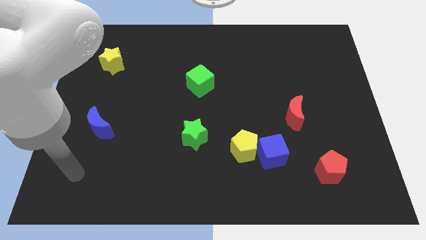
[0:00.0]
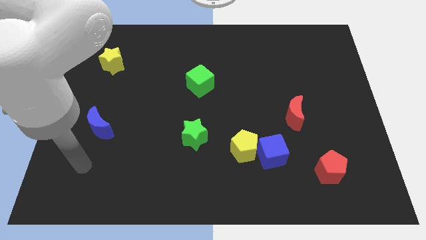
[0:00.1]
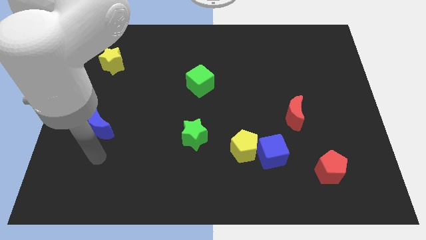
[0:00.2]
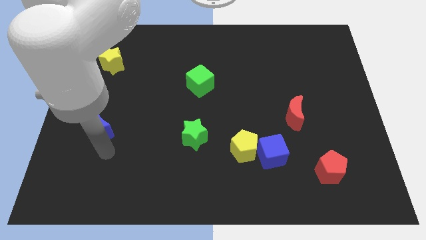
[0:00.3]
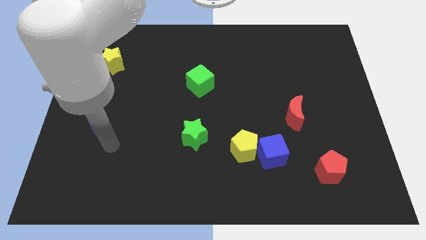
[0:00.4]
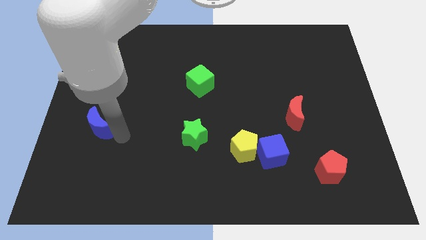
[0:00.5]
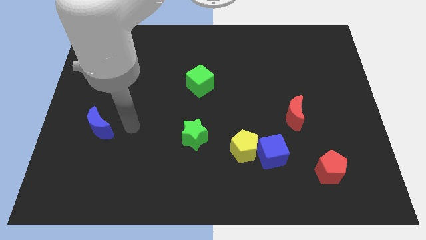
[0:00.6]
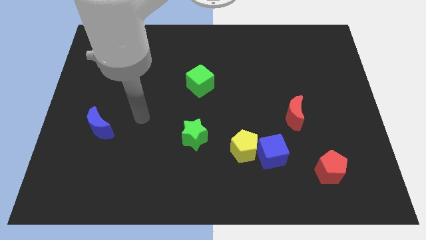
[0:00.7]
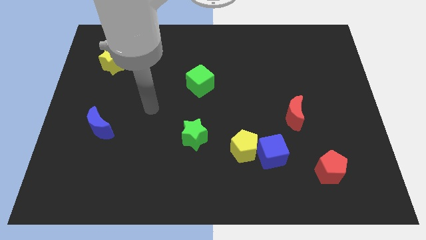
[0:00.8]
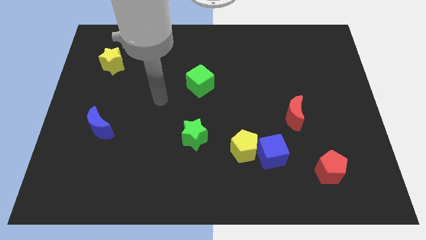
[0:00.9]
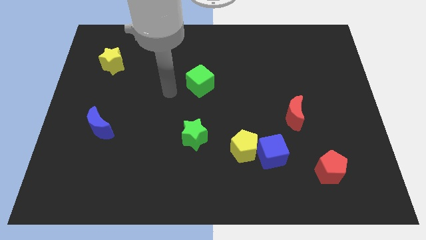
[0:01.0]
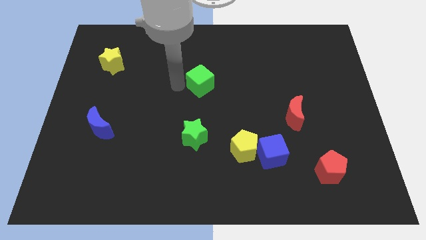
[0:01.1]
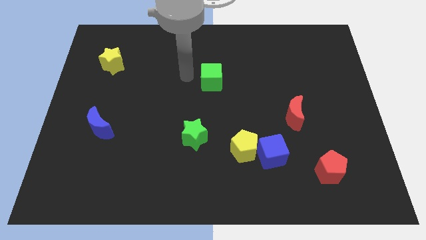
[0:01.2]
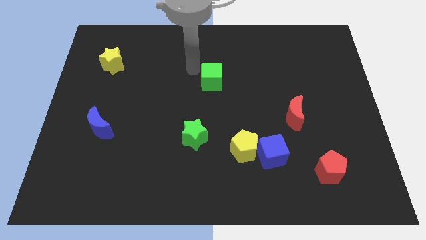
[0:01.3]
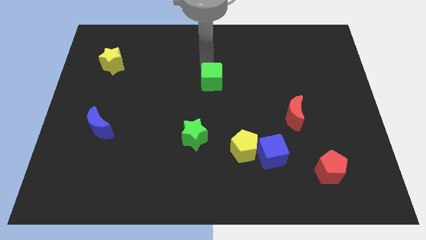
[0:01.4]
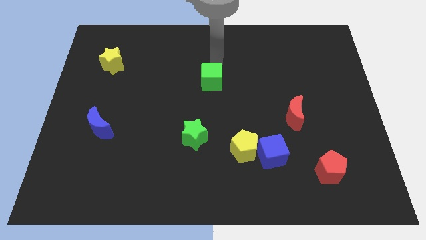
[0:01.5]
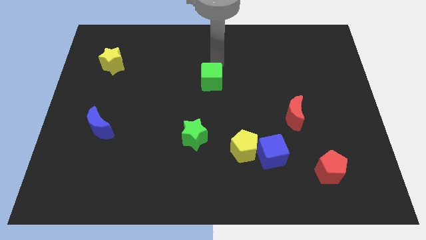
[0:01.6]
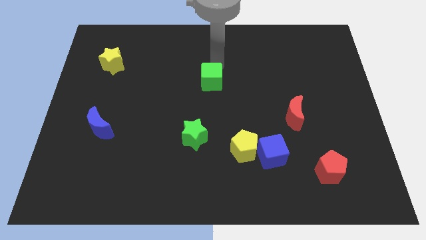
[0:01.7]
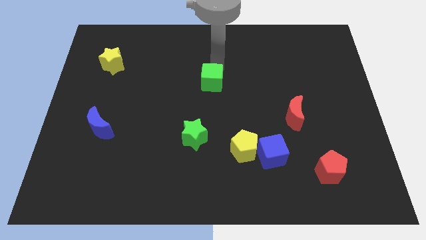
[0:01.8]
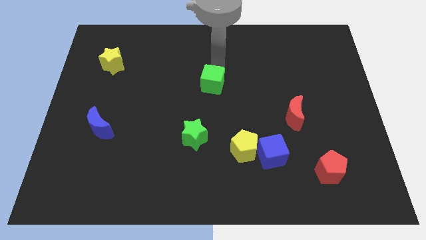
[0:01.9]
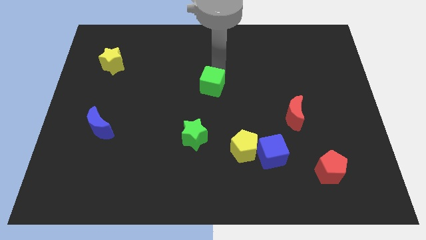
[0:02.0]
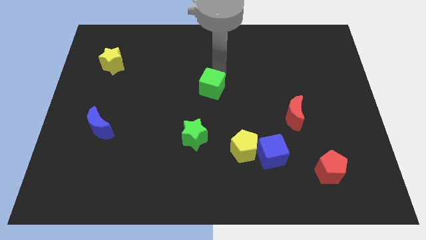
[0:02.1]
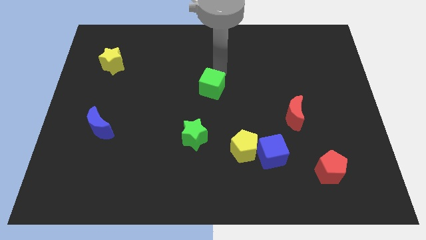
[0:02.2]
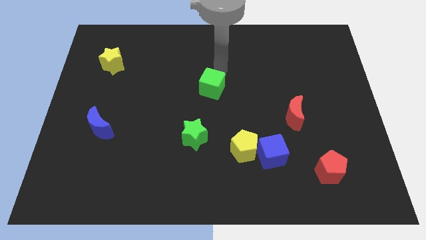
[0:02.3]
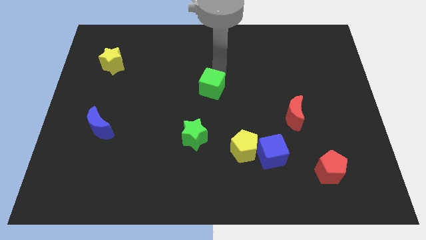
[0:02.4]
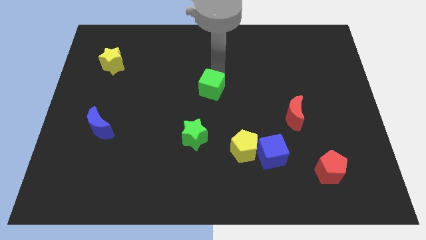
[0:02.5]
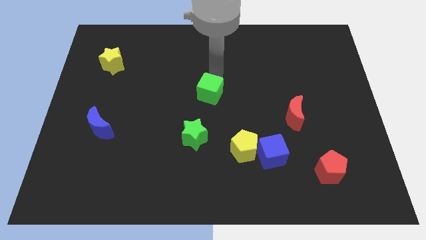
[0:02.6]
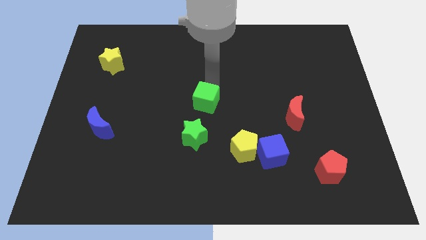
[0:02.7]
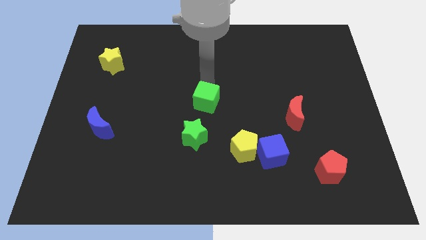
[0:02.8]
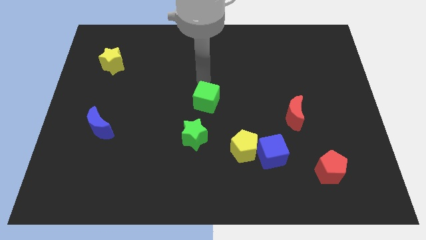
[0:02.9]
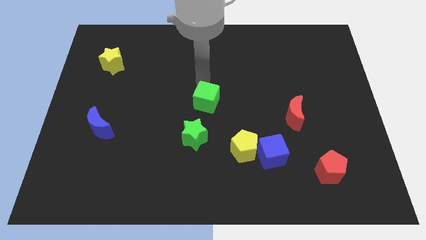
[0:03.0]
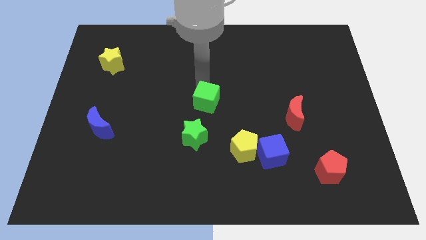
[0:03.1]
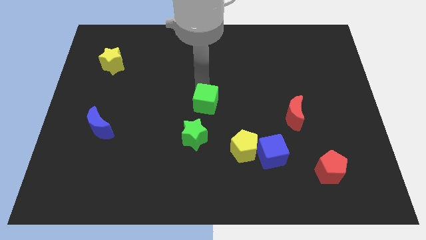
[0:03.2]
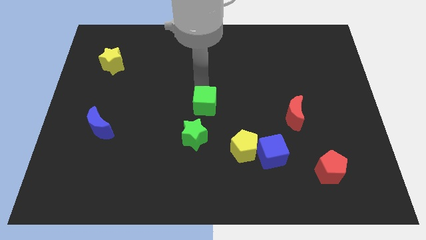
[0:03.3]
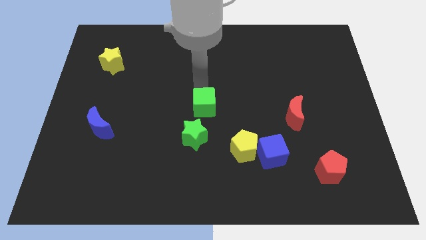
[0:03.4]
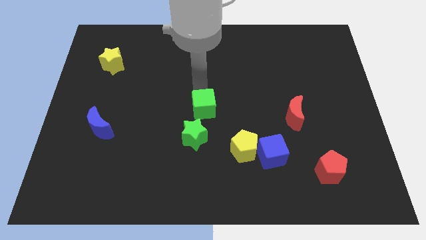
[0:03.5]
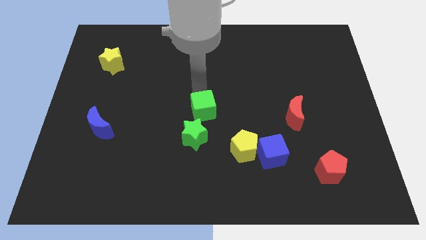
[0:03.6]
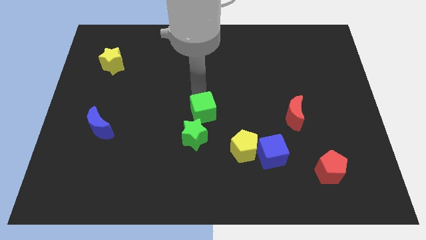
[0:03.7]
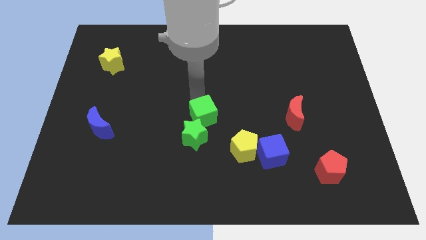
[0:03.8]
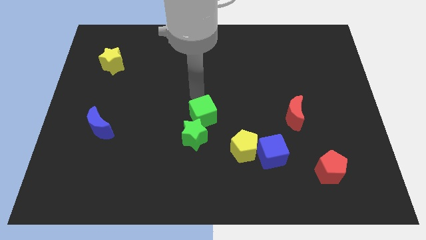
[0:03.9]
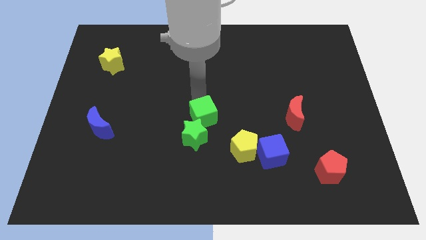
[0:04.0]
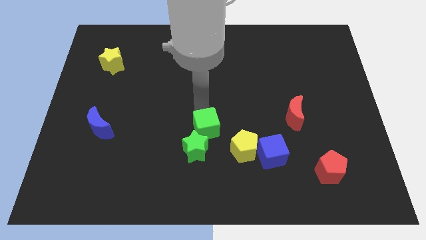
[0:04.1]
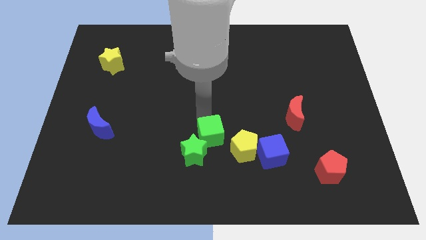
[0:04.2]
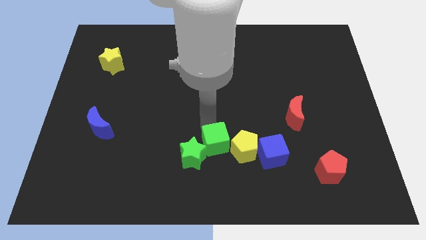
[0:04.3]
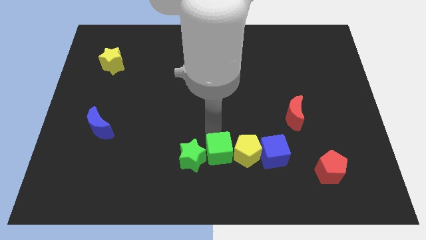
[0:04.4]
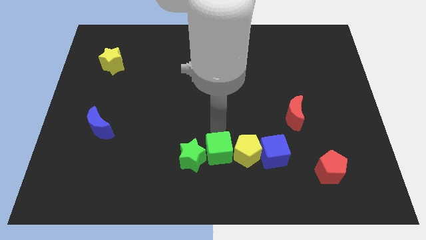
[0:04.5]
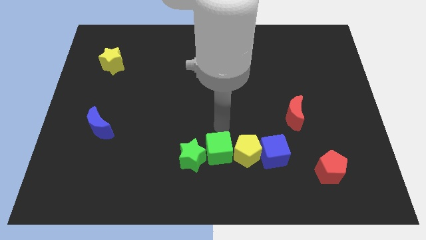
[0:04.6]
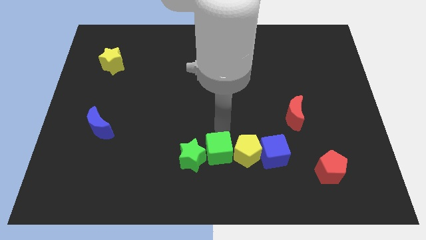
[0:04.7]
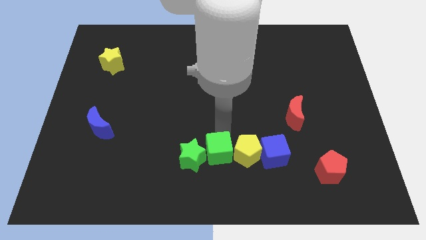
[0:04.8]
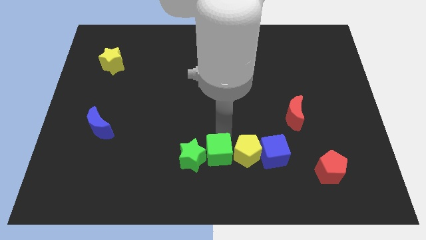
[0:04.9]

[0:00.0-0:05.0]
put the green cube diagonally down and to the right of the green star

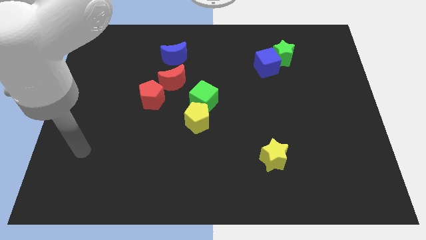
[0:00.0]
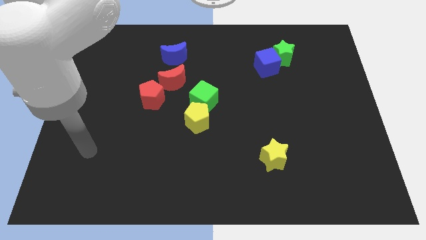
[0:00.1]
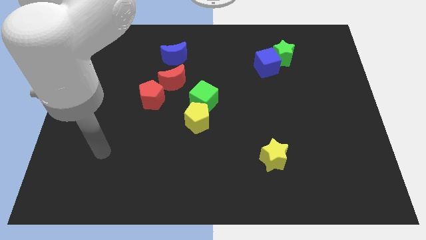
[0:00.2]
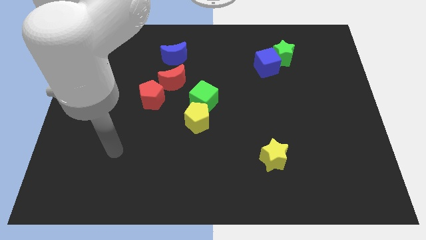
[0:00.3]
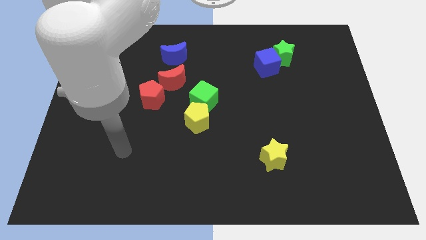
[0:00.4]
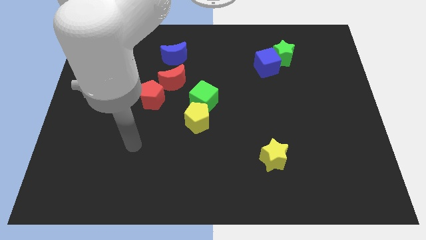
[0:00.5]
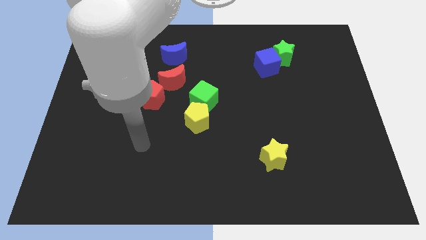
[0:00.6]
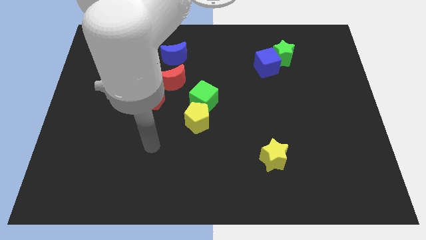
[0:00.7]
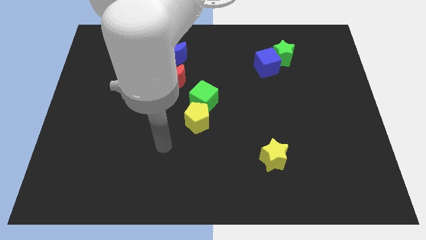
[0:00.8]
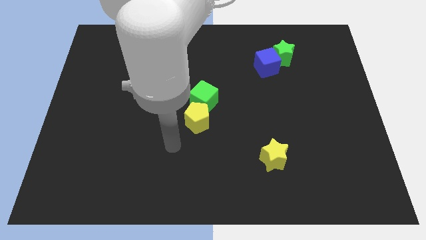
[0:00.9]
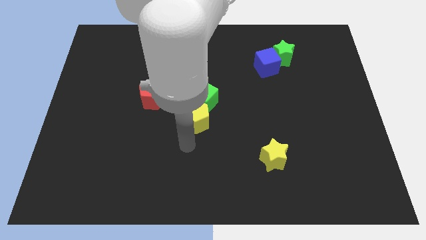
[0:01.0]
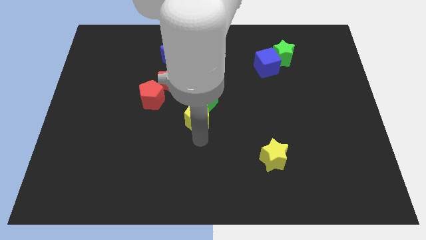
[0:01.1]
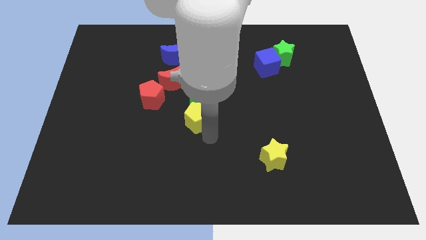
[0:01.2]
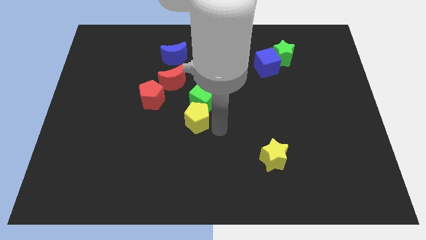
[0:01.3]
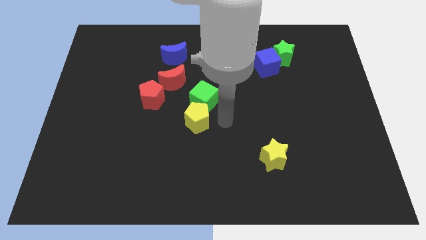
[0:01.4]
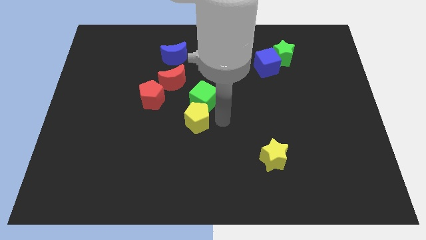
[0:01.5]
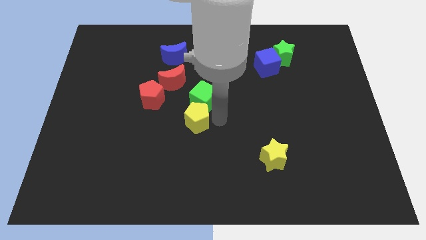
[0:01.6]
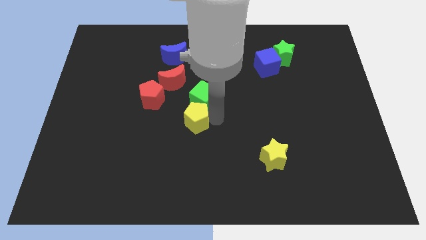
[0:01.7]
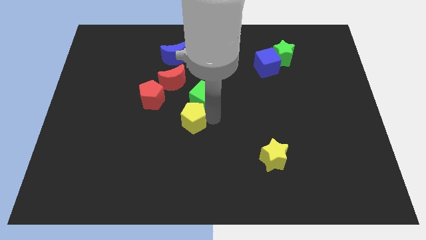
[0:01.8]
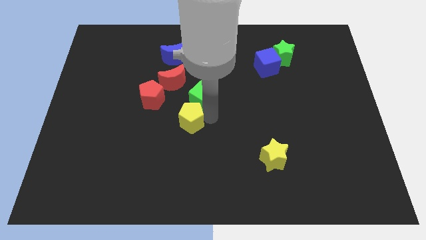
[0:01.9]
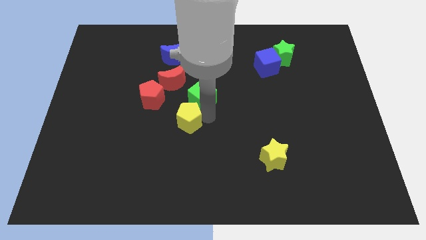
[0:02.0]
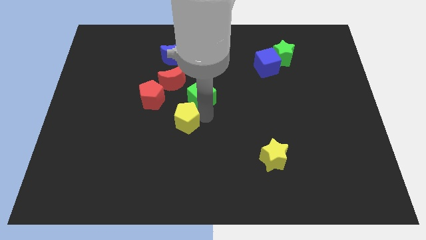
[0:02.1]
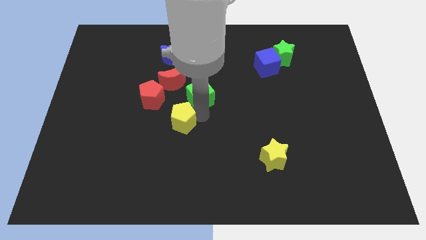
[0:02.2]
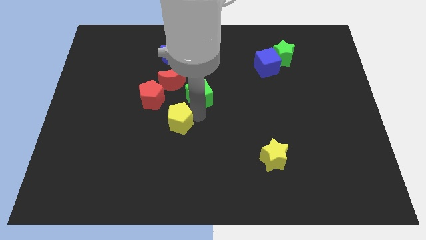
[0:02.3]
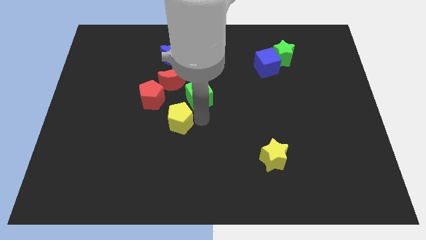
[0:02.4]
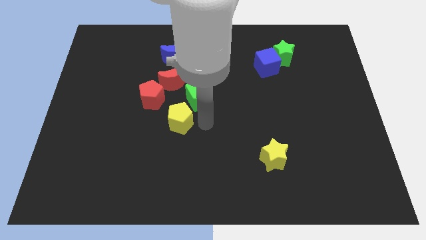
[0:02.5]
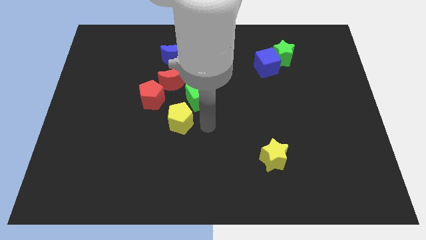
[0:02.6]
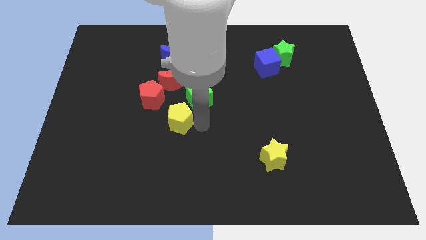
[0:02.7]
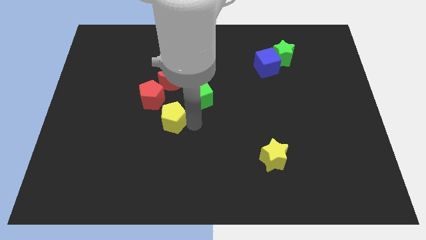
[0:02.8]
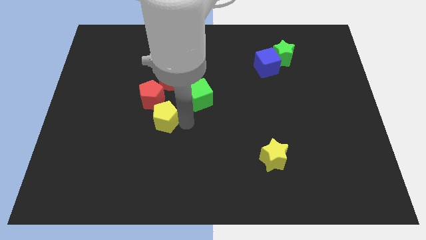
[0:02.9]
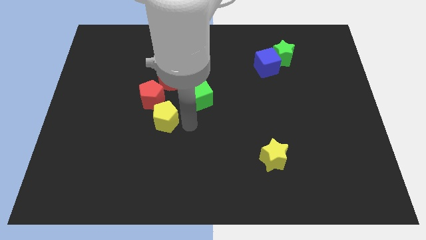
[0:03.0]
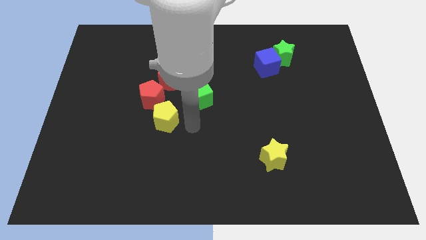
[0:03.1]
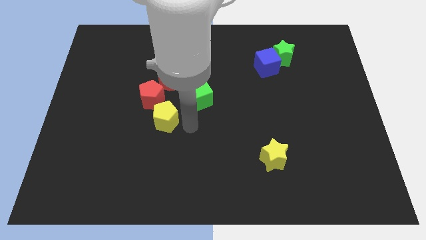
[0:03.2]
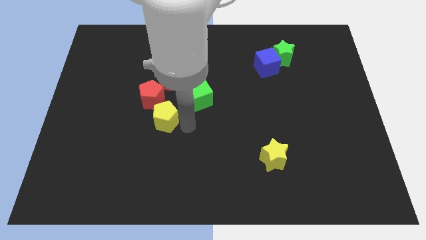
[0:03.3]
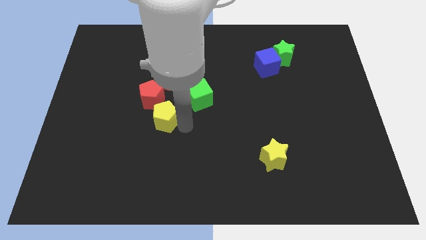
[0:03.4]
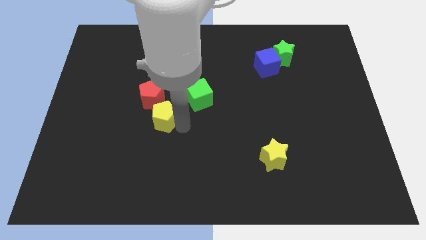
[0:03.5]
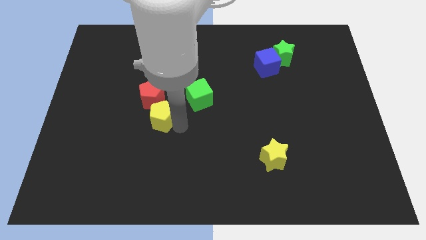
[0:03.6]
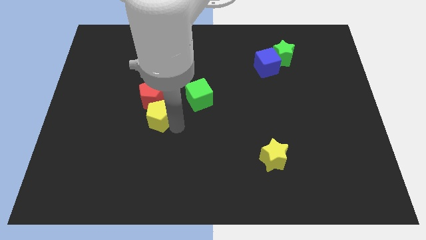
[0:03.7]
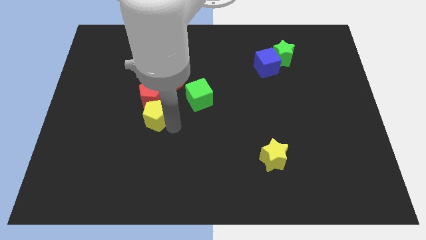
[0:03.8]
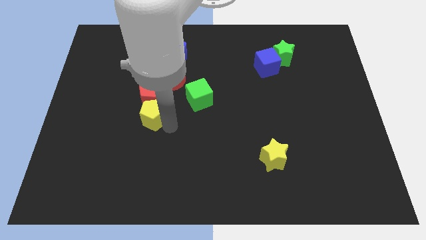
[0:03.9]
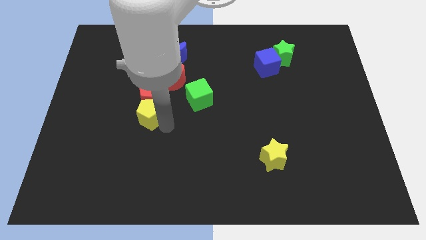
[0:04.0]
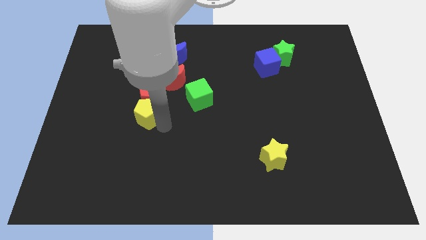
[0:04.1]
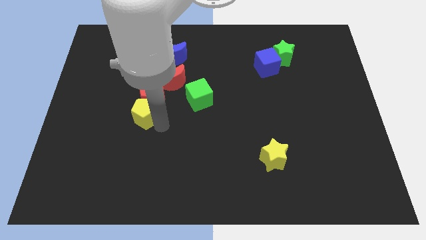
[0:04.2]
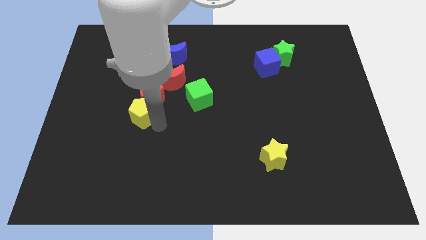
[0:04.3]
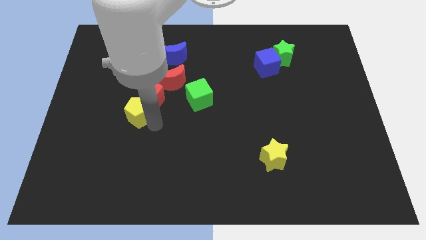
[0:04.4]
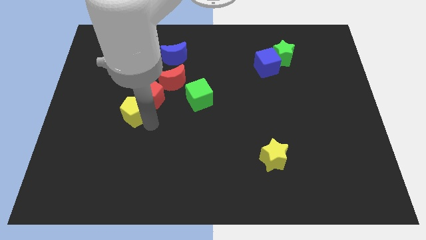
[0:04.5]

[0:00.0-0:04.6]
push the yellow pentagon left of the red pentagon
